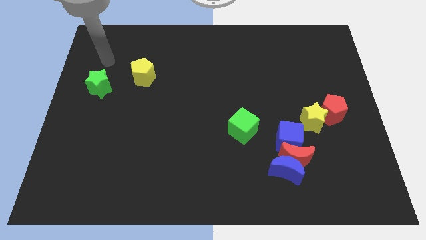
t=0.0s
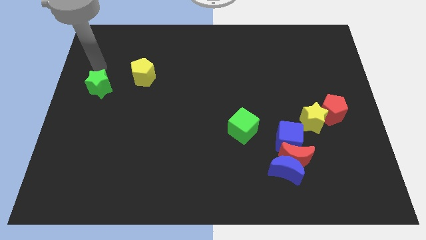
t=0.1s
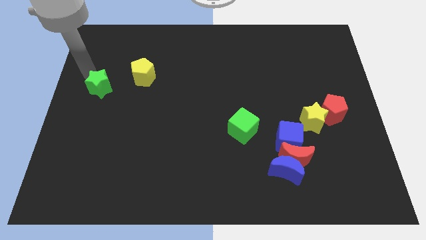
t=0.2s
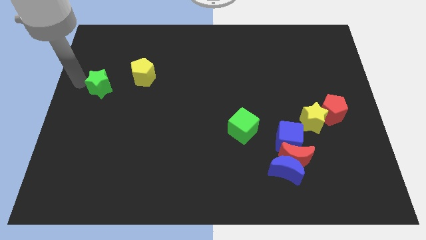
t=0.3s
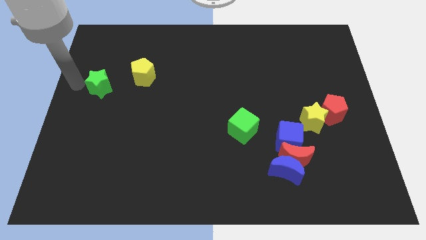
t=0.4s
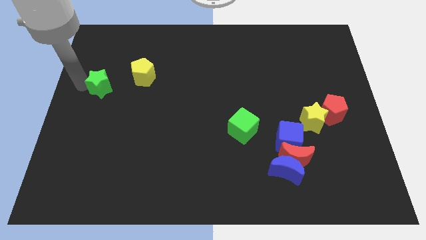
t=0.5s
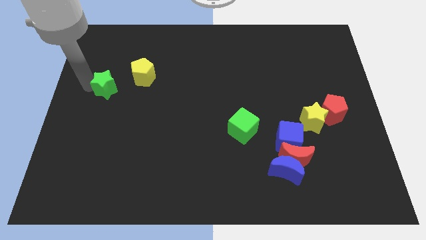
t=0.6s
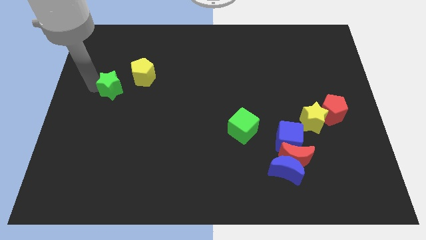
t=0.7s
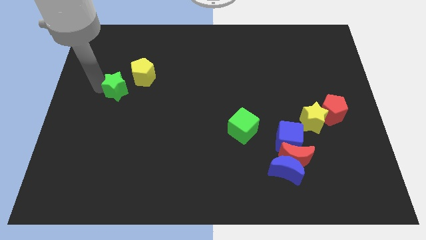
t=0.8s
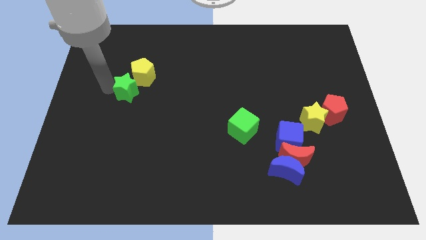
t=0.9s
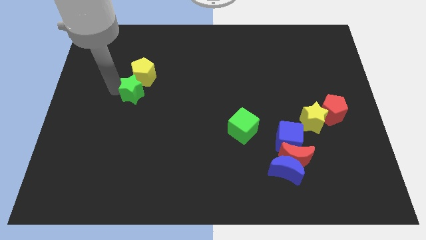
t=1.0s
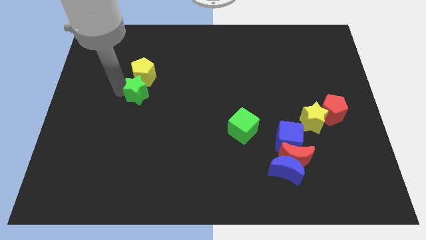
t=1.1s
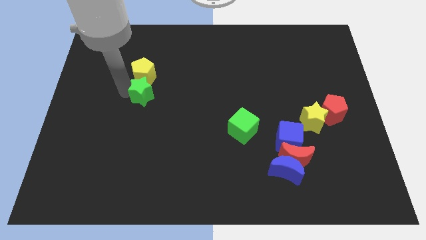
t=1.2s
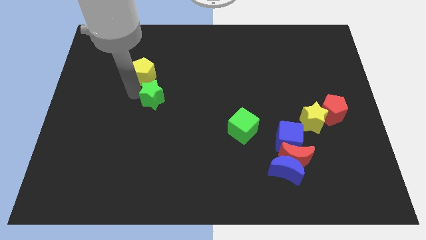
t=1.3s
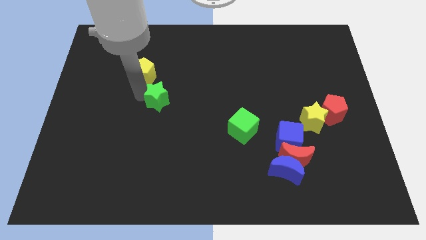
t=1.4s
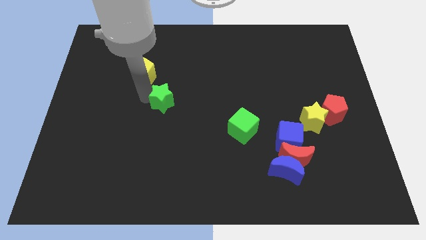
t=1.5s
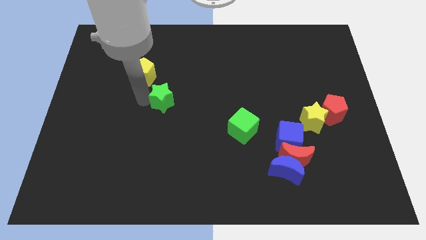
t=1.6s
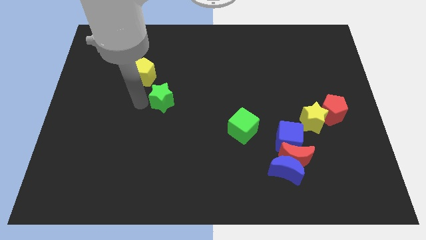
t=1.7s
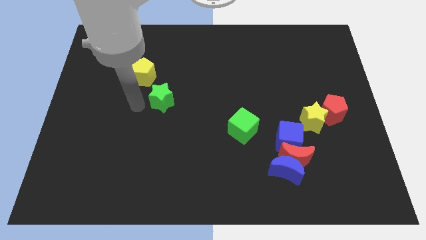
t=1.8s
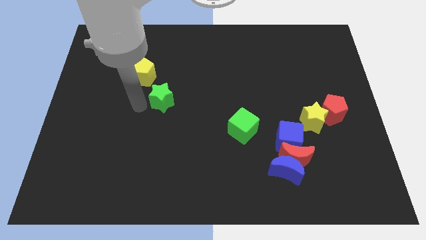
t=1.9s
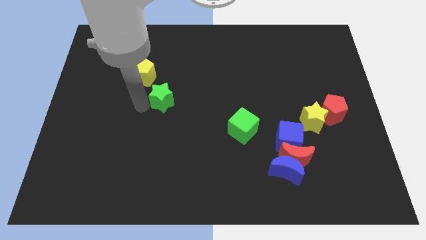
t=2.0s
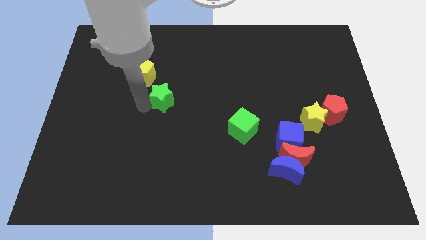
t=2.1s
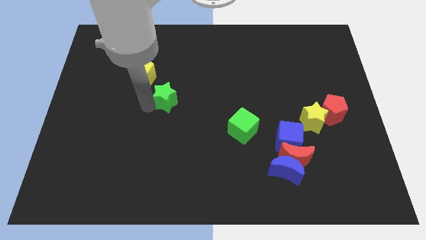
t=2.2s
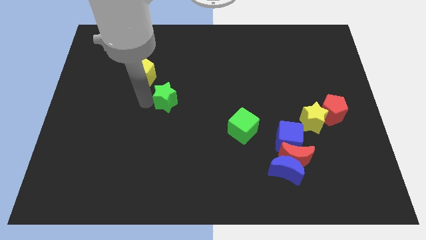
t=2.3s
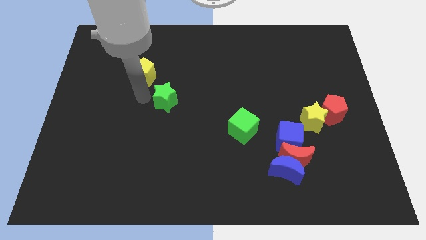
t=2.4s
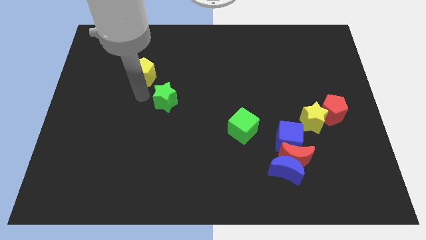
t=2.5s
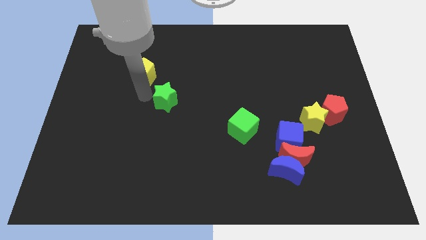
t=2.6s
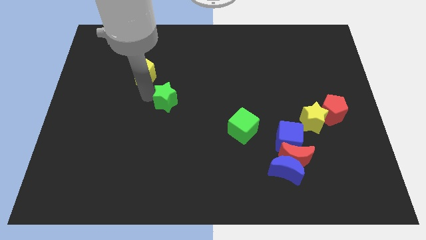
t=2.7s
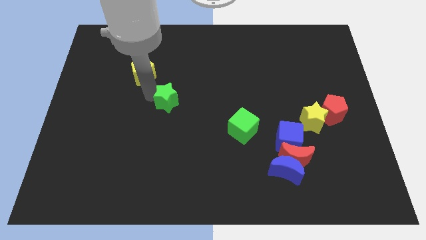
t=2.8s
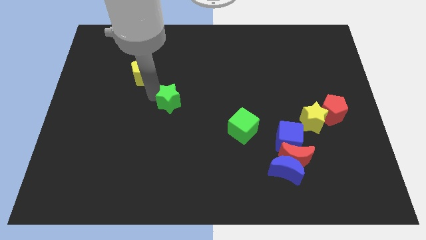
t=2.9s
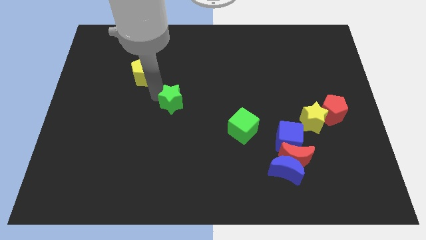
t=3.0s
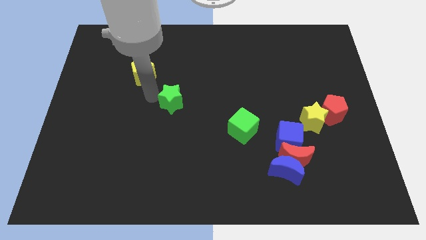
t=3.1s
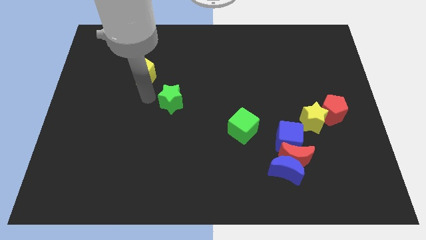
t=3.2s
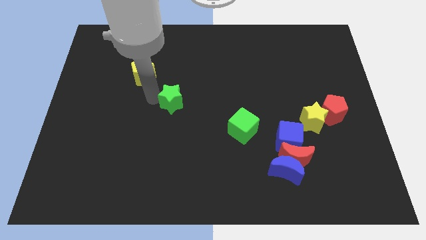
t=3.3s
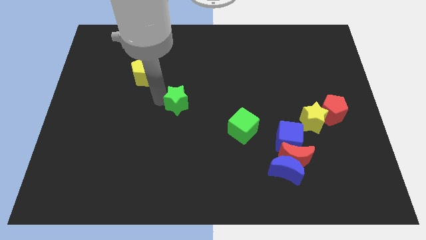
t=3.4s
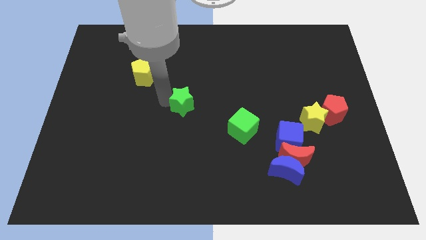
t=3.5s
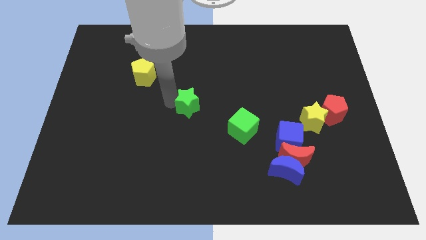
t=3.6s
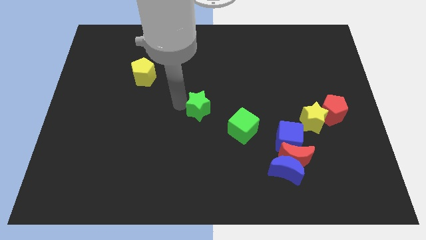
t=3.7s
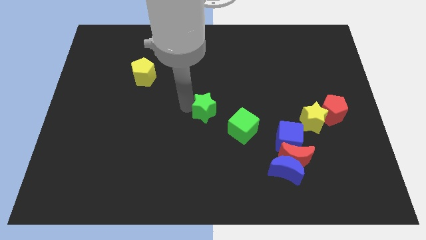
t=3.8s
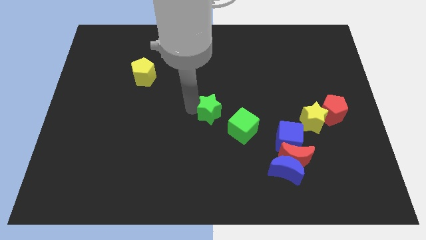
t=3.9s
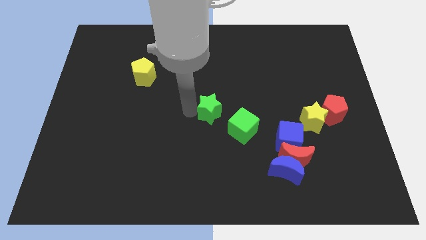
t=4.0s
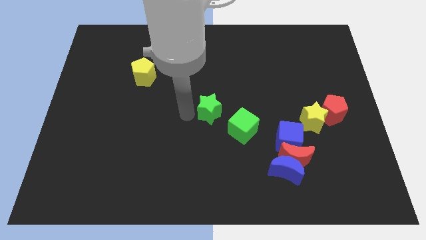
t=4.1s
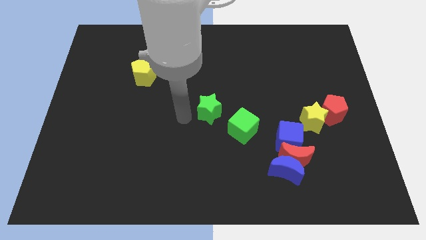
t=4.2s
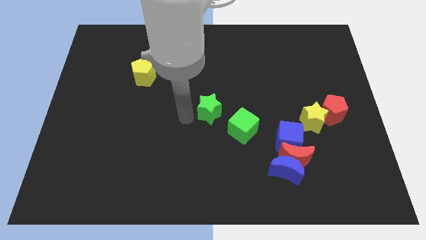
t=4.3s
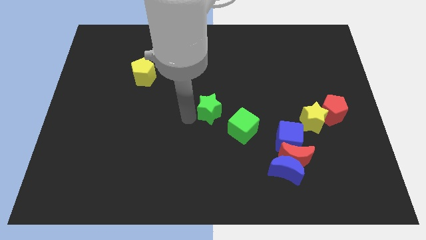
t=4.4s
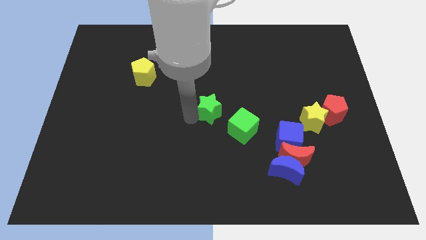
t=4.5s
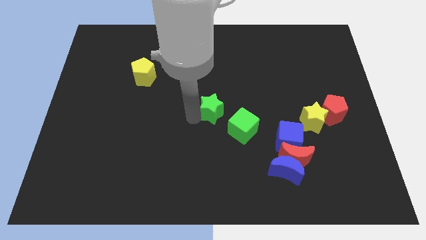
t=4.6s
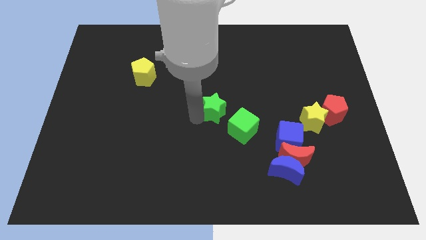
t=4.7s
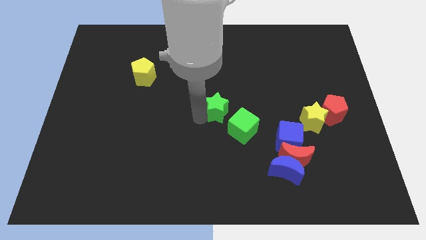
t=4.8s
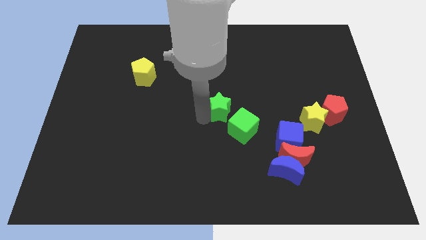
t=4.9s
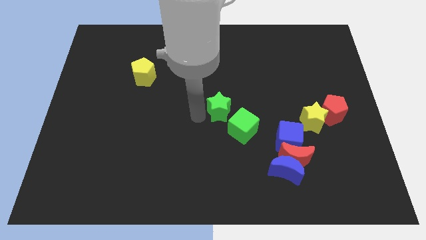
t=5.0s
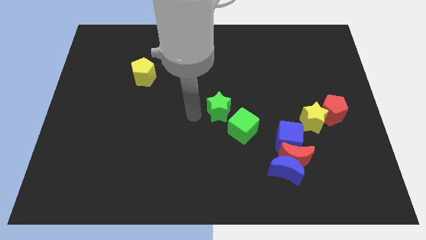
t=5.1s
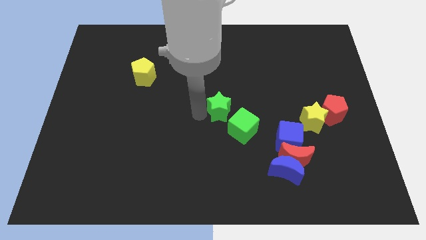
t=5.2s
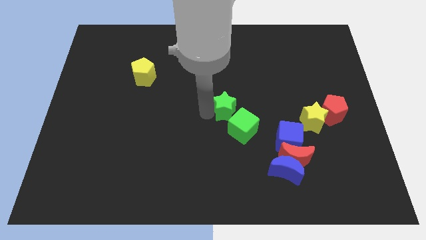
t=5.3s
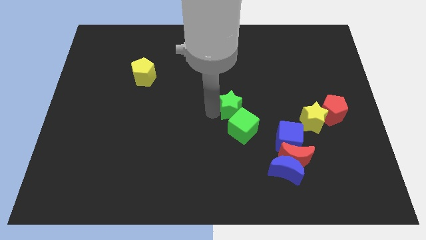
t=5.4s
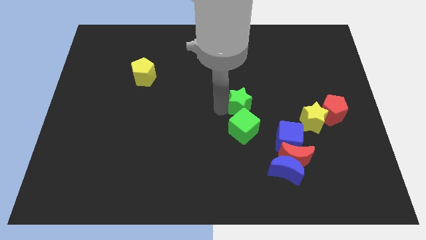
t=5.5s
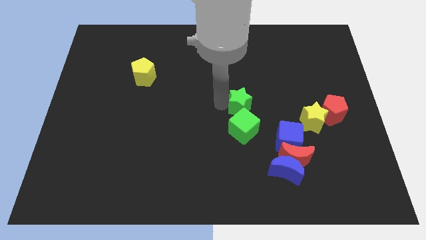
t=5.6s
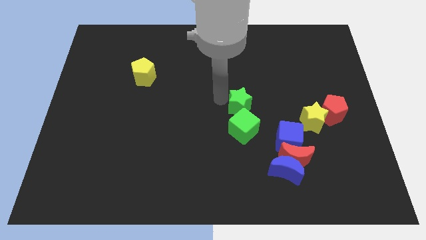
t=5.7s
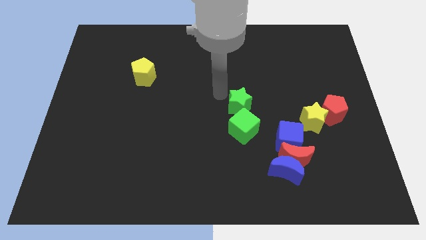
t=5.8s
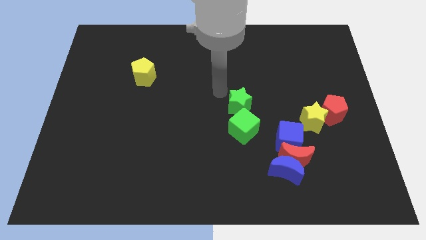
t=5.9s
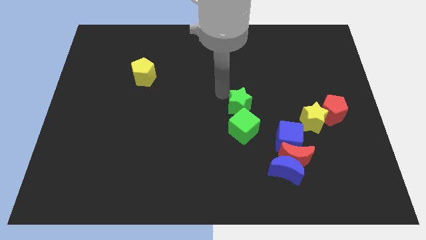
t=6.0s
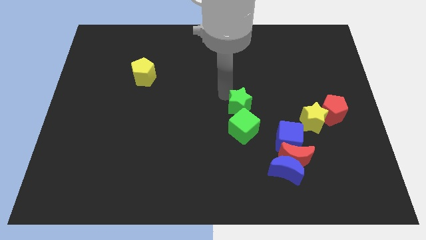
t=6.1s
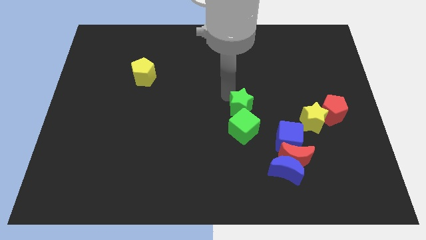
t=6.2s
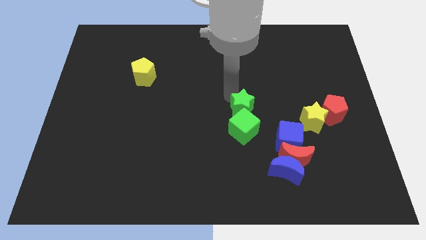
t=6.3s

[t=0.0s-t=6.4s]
move the green star to the top left side of the blue cube
